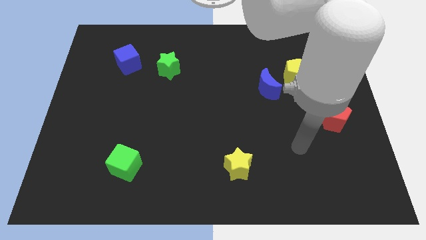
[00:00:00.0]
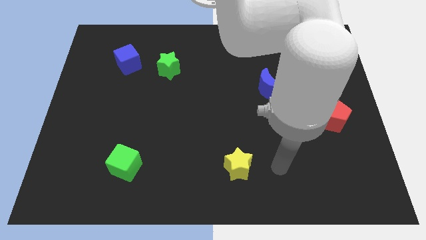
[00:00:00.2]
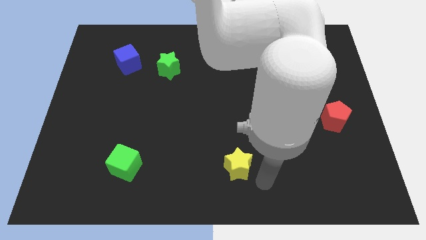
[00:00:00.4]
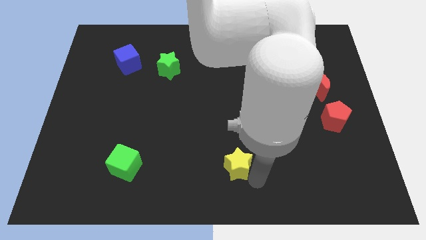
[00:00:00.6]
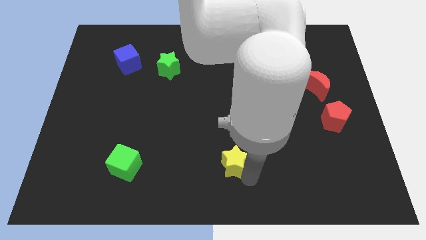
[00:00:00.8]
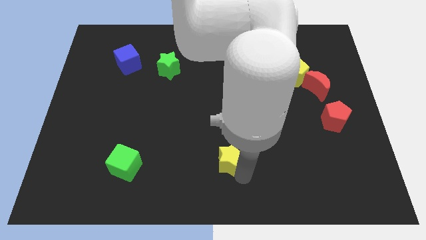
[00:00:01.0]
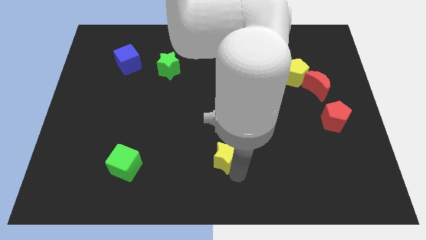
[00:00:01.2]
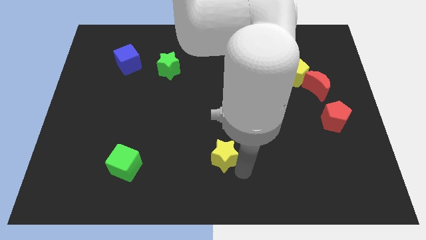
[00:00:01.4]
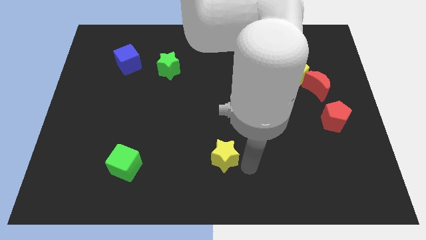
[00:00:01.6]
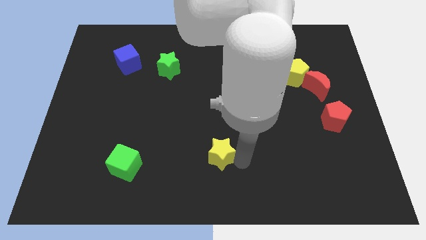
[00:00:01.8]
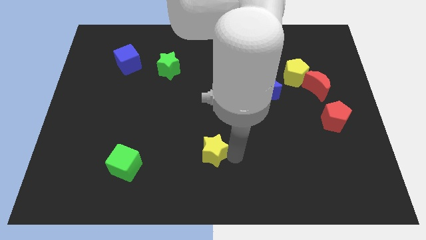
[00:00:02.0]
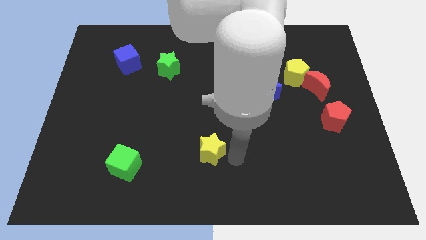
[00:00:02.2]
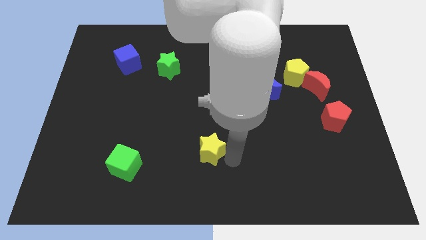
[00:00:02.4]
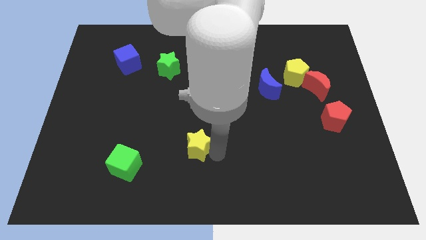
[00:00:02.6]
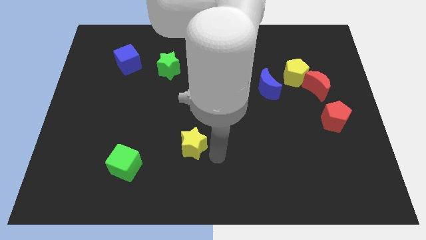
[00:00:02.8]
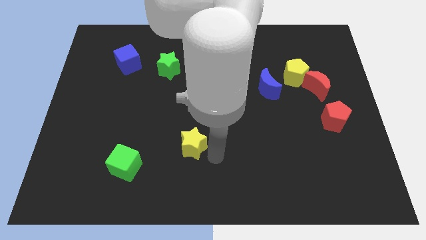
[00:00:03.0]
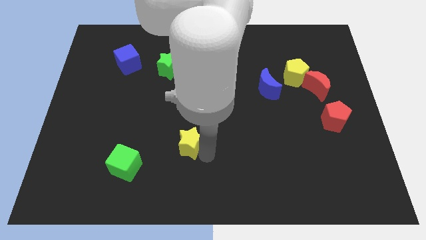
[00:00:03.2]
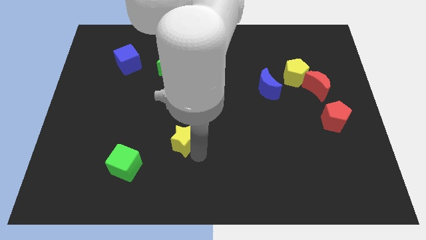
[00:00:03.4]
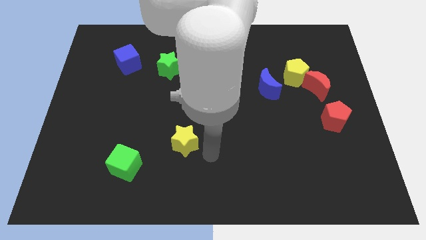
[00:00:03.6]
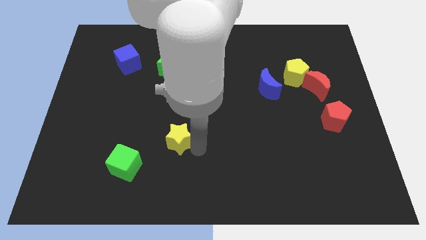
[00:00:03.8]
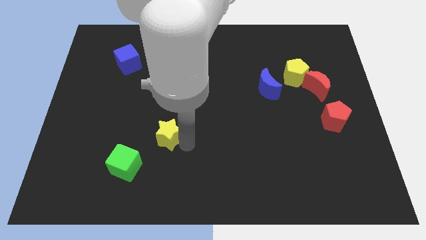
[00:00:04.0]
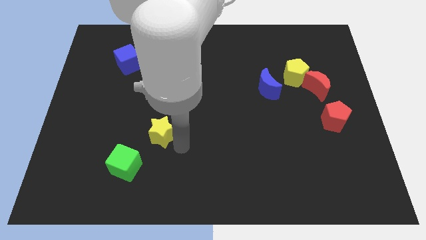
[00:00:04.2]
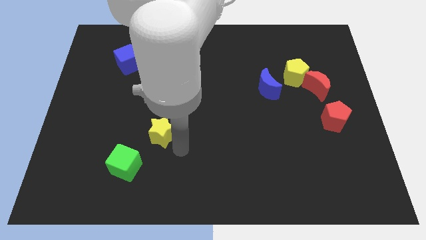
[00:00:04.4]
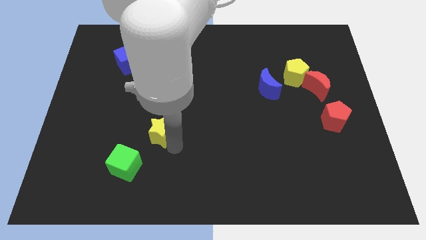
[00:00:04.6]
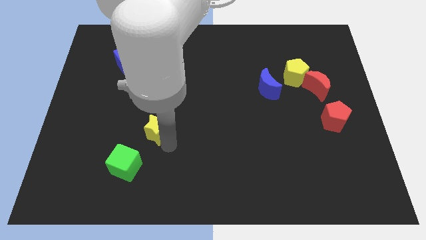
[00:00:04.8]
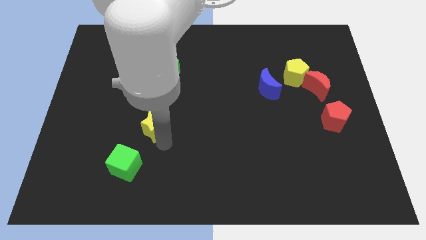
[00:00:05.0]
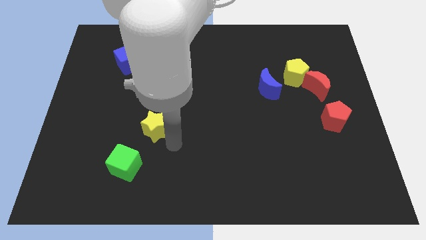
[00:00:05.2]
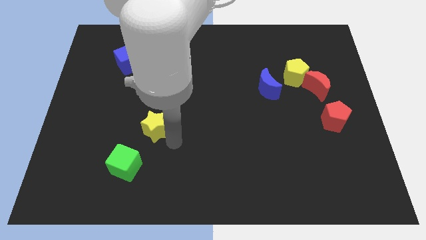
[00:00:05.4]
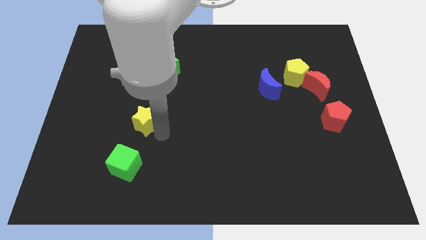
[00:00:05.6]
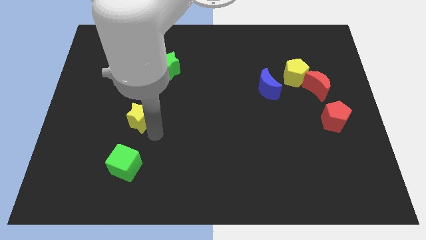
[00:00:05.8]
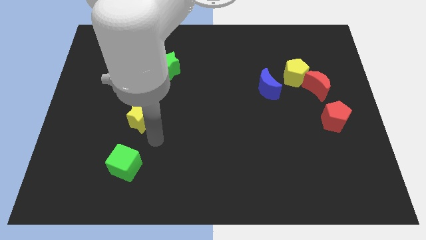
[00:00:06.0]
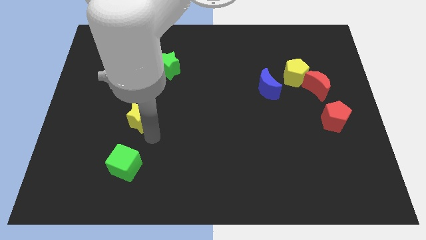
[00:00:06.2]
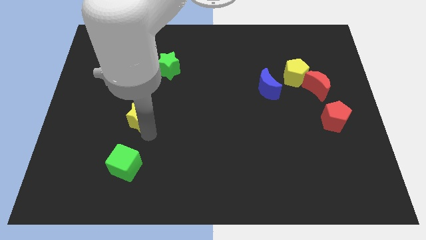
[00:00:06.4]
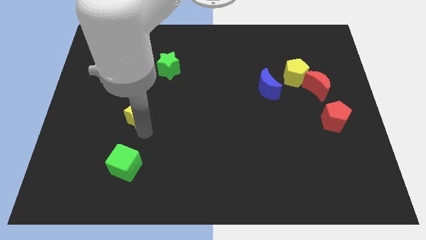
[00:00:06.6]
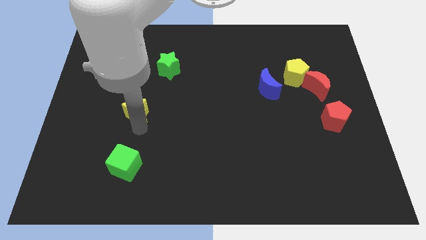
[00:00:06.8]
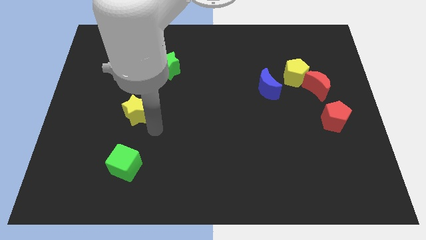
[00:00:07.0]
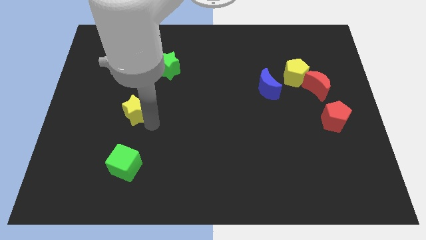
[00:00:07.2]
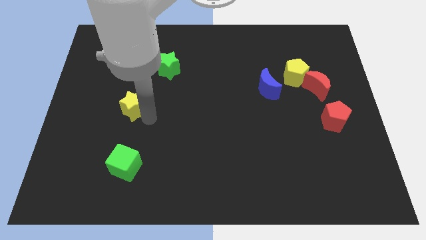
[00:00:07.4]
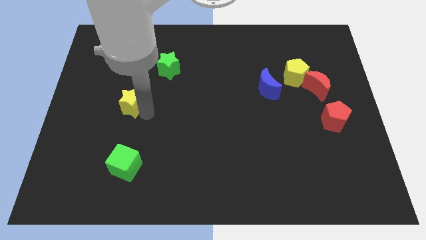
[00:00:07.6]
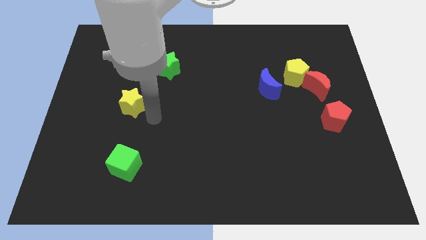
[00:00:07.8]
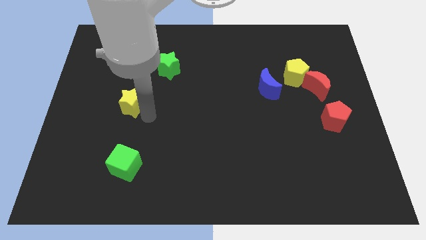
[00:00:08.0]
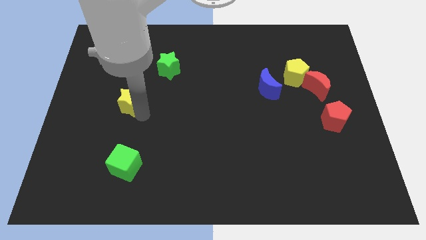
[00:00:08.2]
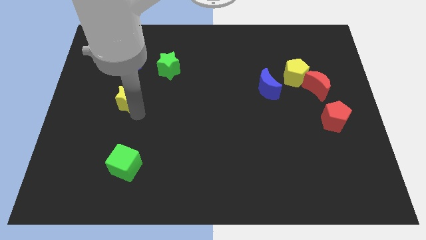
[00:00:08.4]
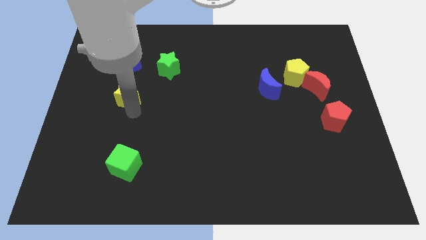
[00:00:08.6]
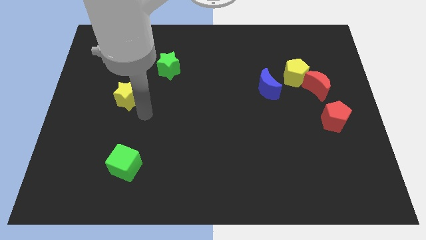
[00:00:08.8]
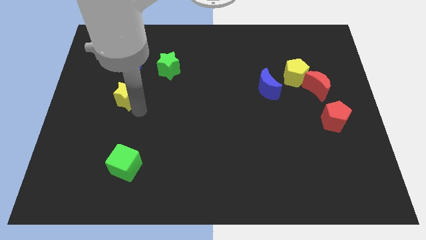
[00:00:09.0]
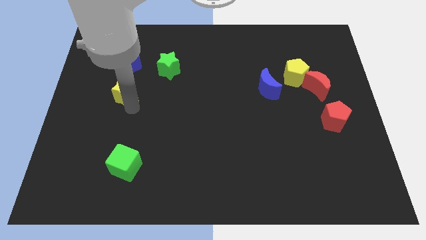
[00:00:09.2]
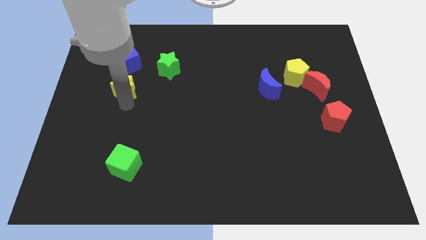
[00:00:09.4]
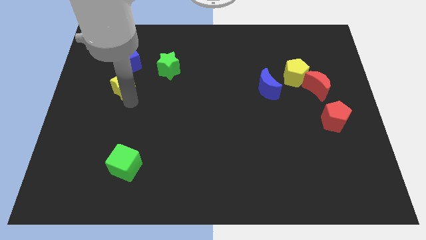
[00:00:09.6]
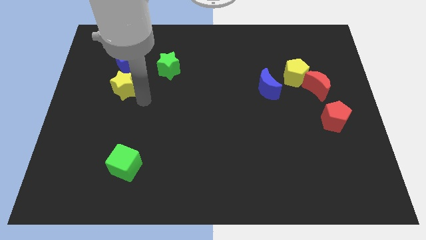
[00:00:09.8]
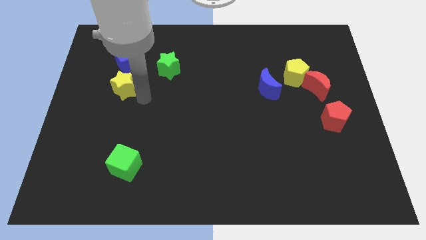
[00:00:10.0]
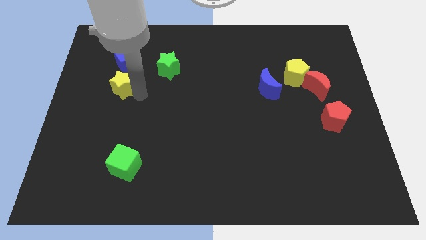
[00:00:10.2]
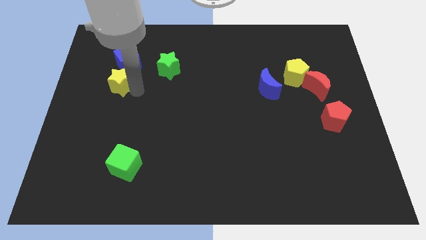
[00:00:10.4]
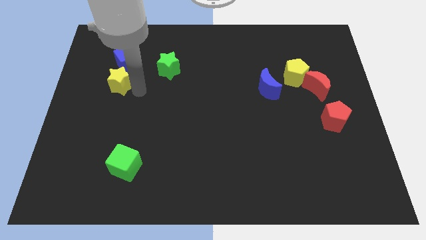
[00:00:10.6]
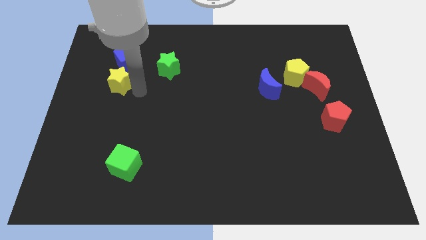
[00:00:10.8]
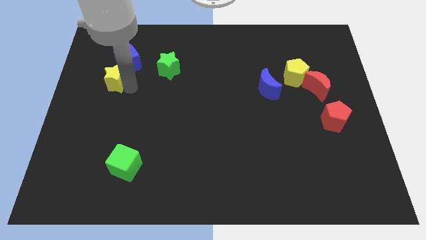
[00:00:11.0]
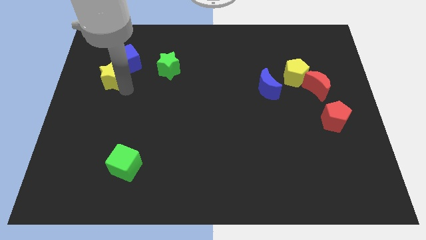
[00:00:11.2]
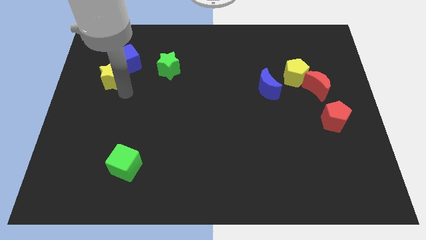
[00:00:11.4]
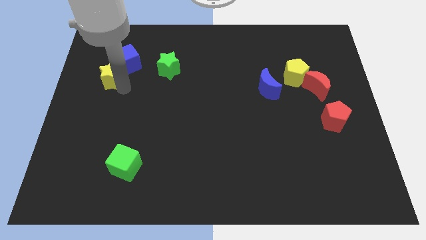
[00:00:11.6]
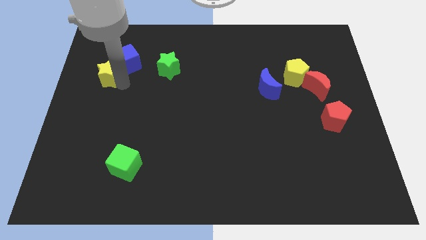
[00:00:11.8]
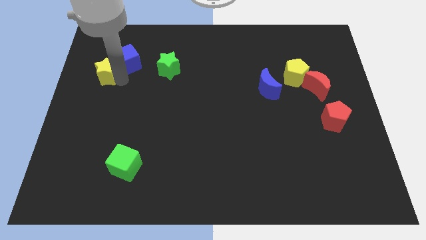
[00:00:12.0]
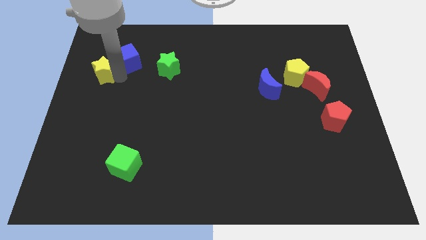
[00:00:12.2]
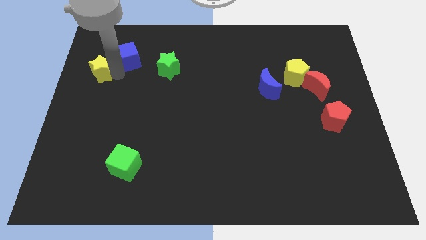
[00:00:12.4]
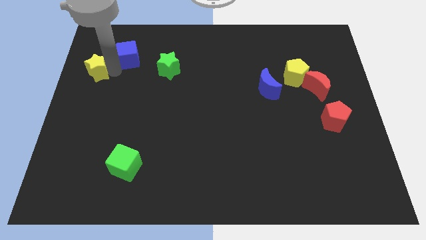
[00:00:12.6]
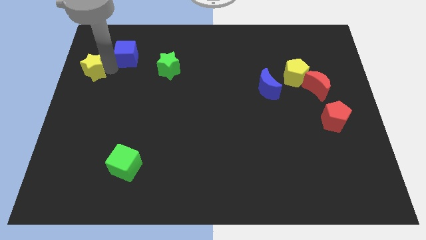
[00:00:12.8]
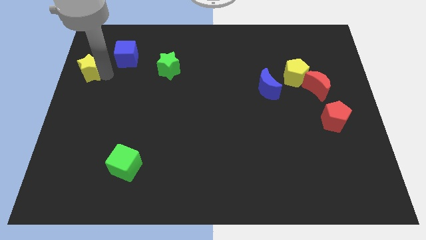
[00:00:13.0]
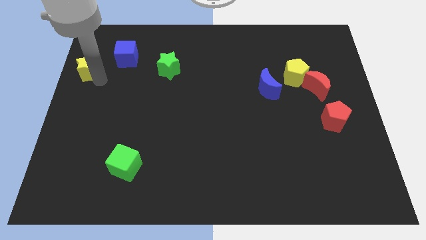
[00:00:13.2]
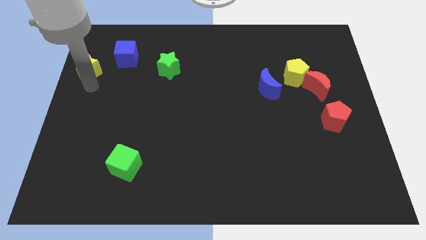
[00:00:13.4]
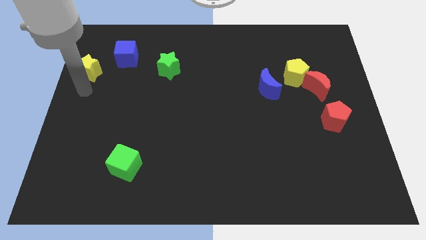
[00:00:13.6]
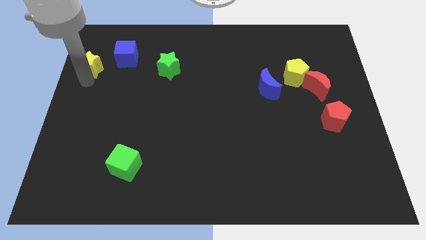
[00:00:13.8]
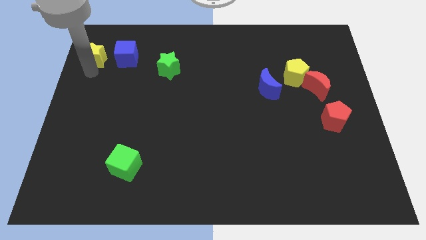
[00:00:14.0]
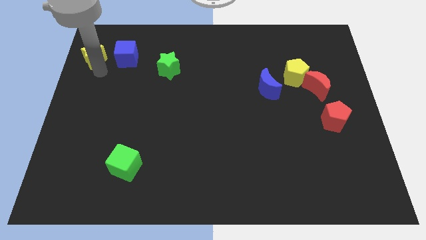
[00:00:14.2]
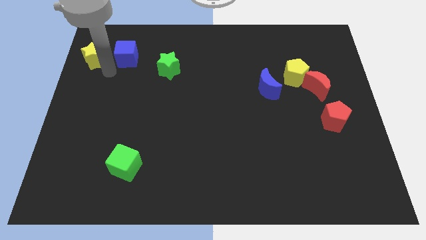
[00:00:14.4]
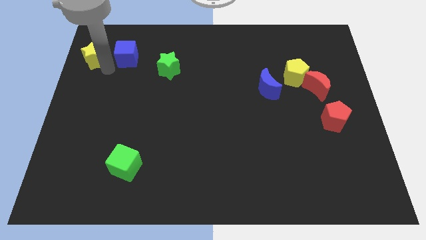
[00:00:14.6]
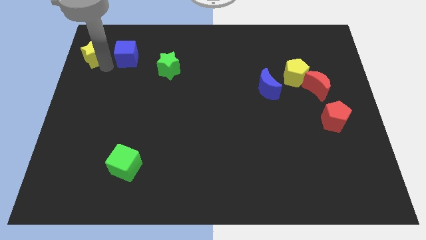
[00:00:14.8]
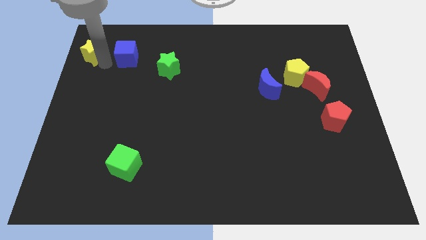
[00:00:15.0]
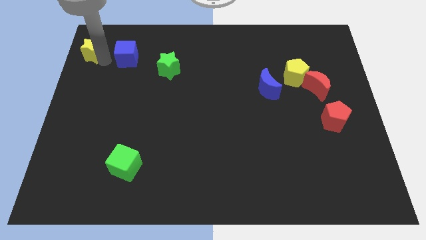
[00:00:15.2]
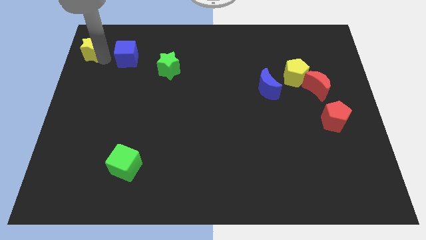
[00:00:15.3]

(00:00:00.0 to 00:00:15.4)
slide the yellow star to the top left corner
